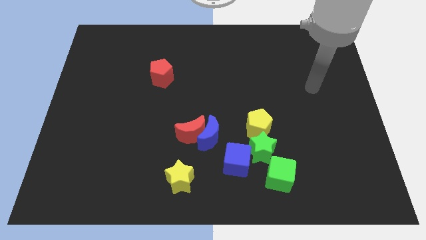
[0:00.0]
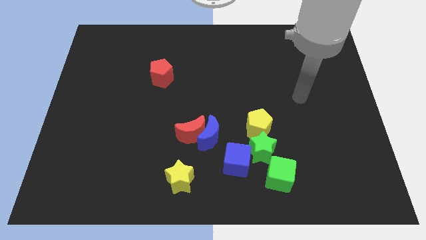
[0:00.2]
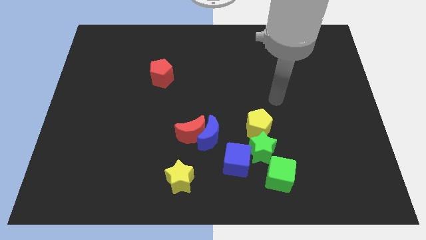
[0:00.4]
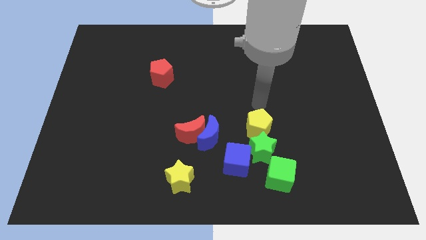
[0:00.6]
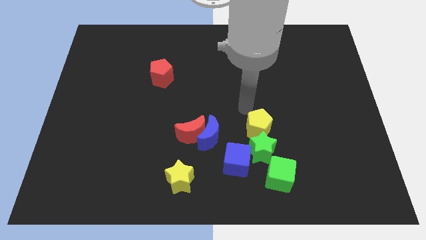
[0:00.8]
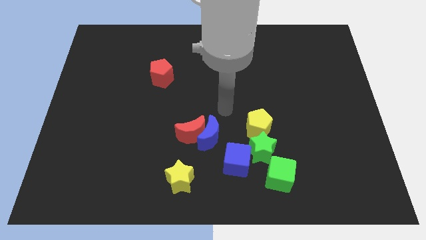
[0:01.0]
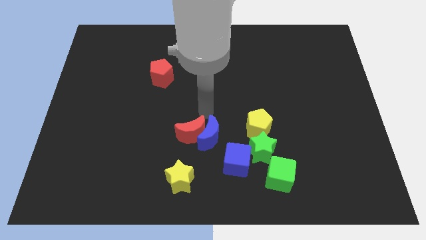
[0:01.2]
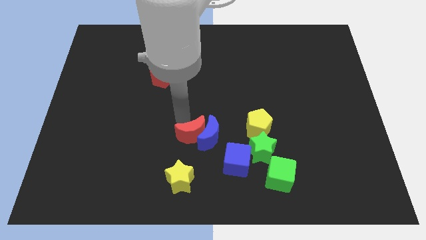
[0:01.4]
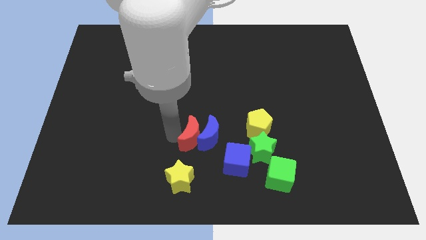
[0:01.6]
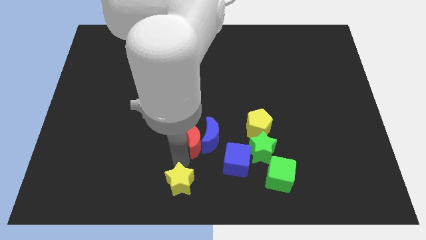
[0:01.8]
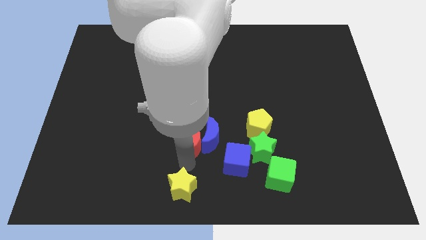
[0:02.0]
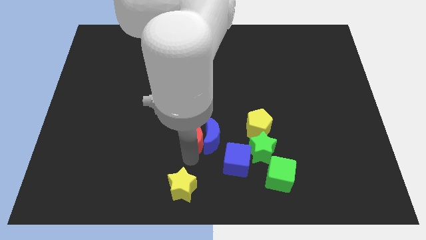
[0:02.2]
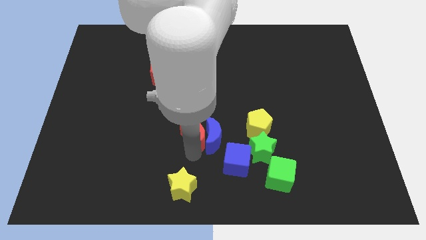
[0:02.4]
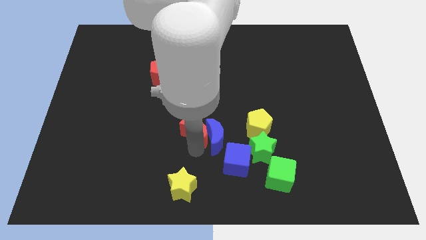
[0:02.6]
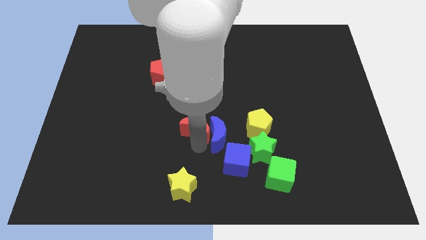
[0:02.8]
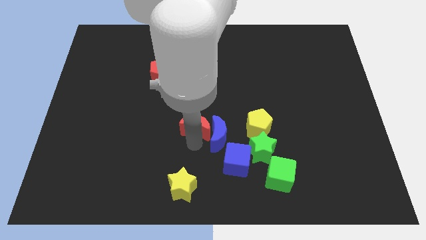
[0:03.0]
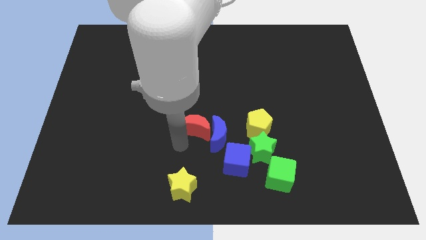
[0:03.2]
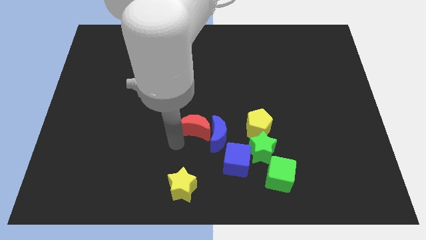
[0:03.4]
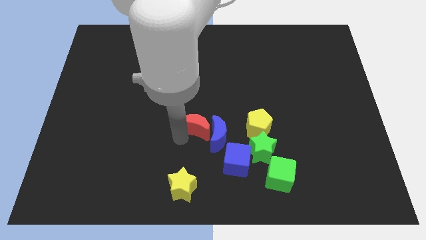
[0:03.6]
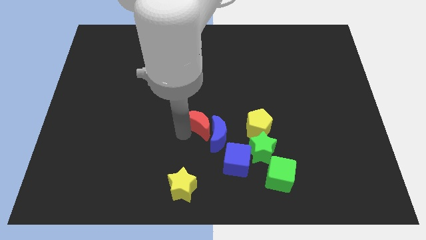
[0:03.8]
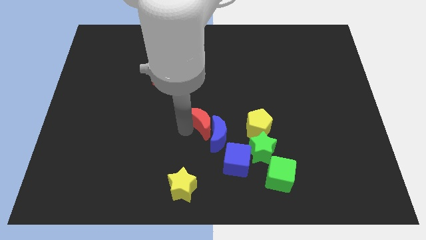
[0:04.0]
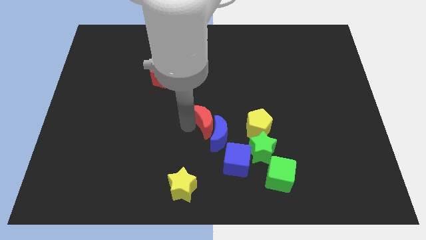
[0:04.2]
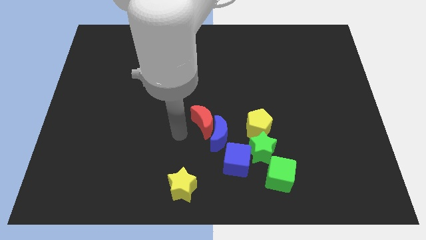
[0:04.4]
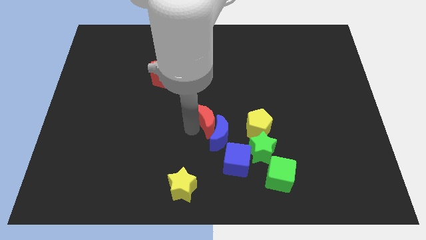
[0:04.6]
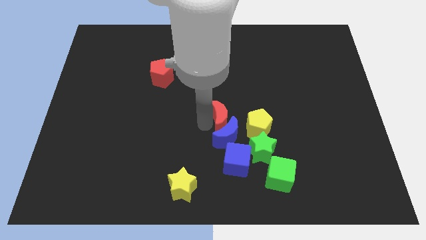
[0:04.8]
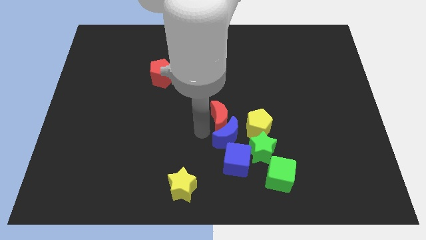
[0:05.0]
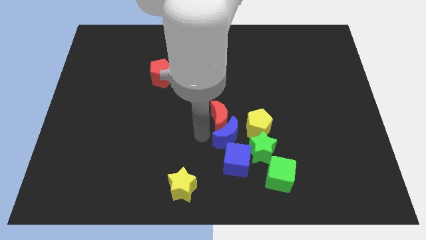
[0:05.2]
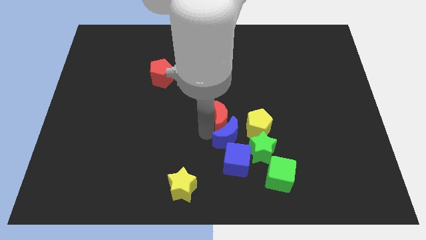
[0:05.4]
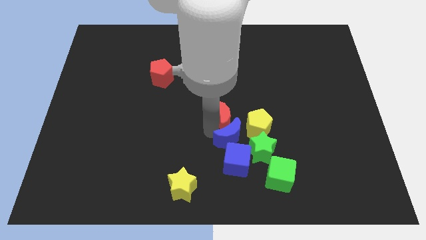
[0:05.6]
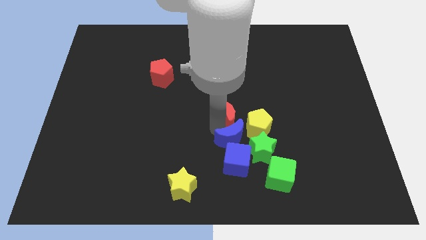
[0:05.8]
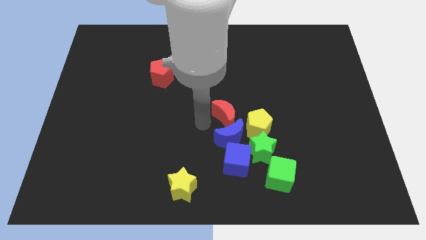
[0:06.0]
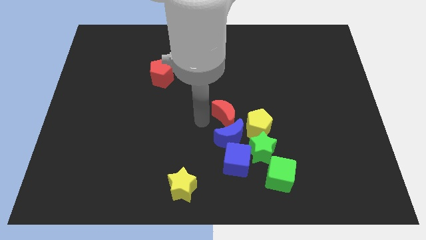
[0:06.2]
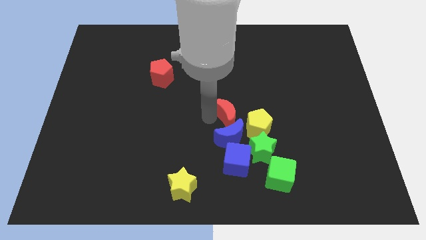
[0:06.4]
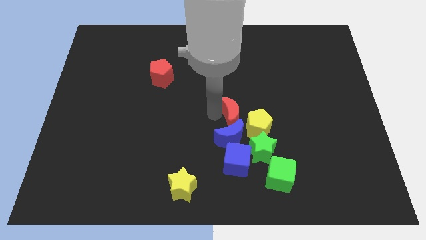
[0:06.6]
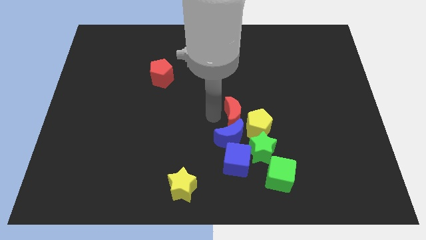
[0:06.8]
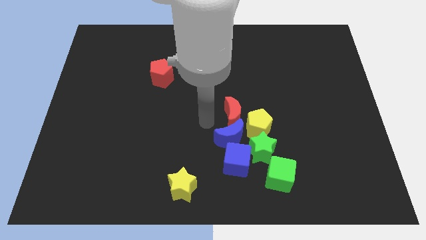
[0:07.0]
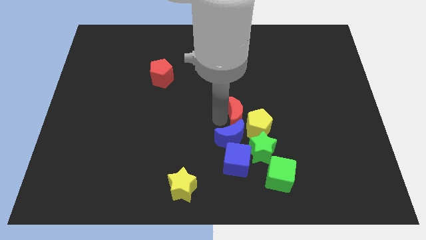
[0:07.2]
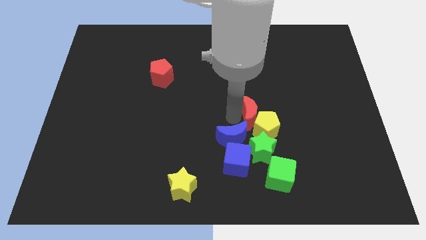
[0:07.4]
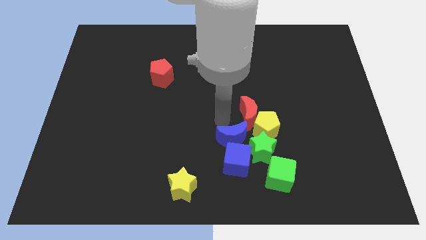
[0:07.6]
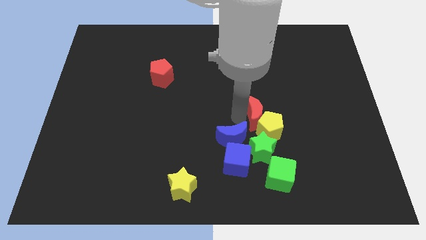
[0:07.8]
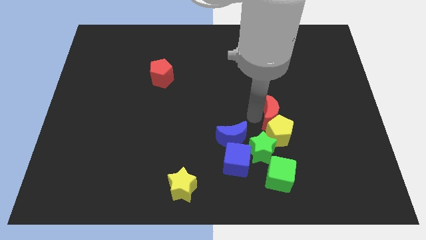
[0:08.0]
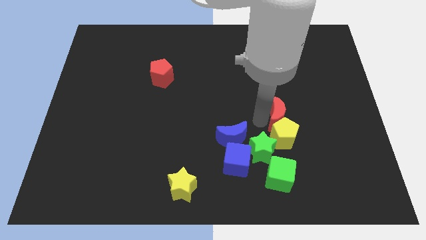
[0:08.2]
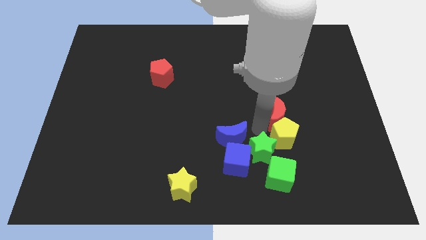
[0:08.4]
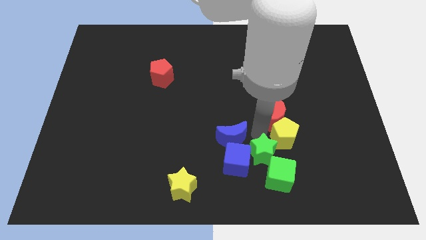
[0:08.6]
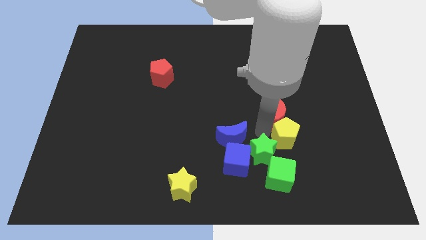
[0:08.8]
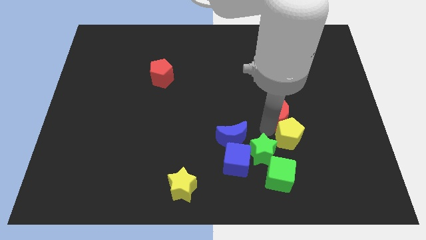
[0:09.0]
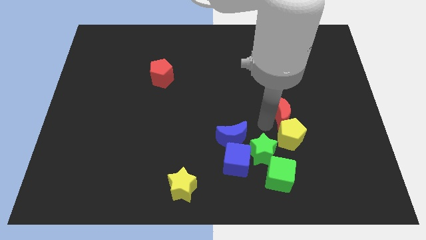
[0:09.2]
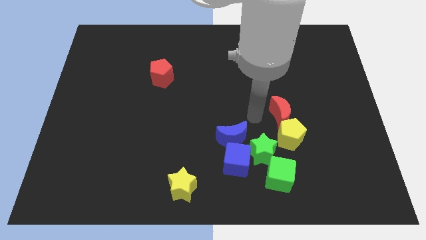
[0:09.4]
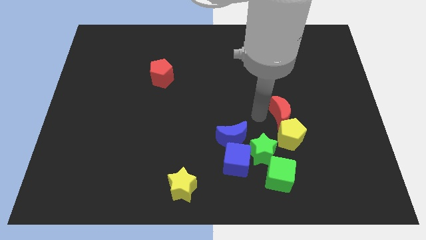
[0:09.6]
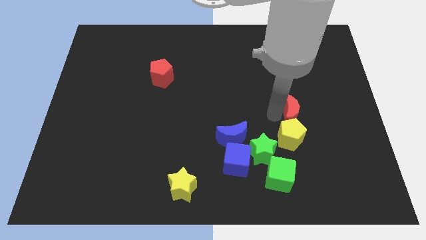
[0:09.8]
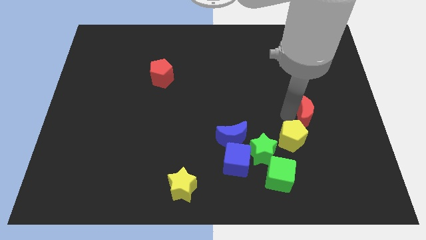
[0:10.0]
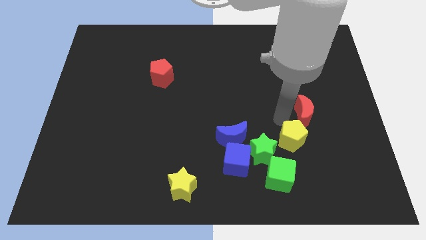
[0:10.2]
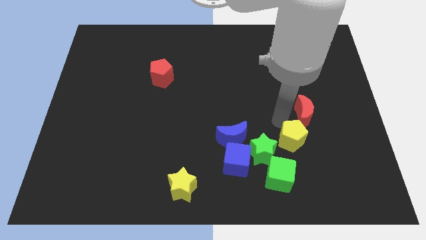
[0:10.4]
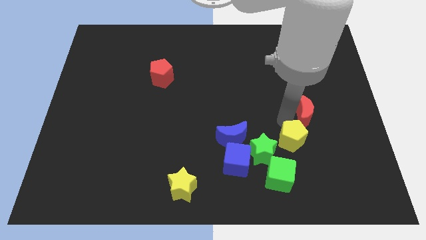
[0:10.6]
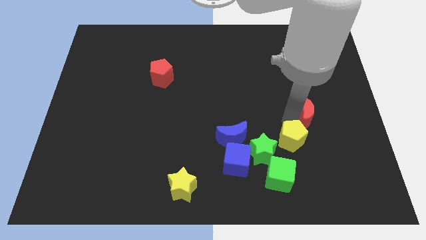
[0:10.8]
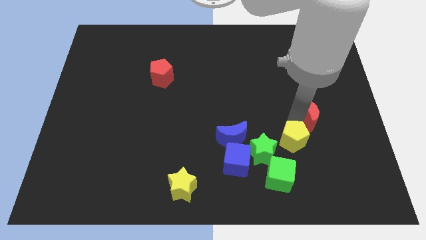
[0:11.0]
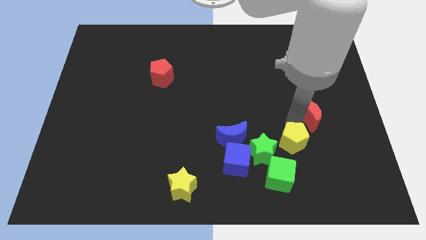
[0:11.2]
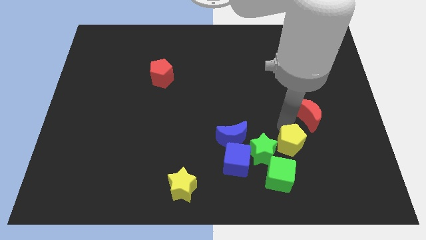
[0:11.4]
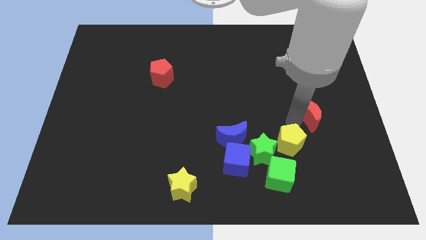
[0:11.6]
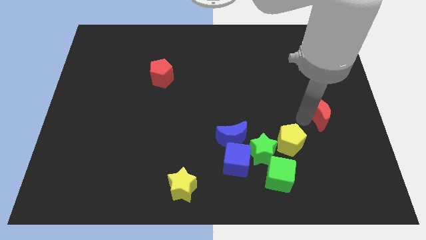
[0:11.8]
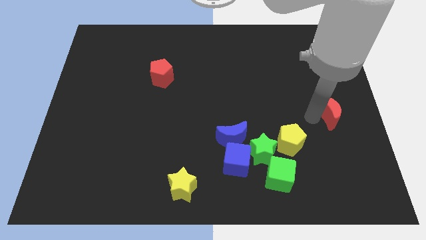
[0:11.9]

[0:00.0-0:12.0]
put the red moon to the center right

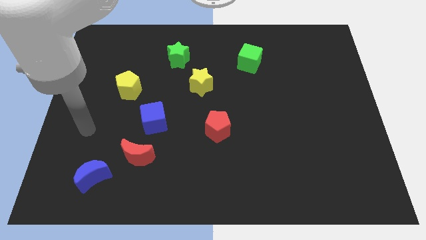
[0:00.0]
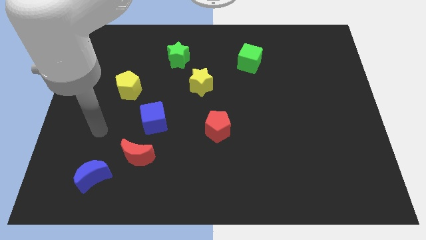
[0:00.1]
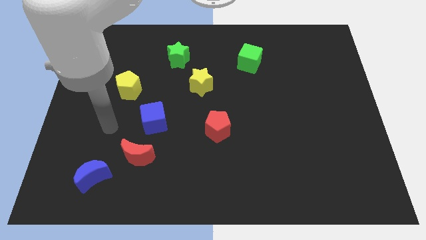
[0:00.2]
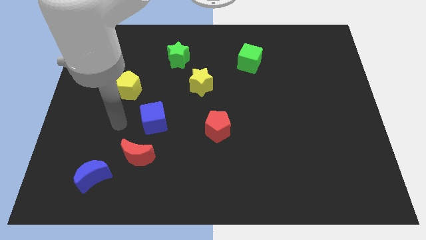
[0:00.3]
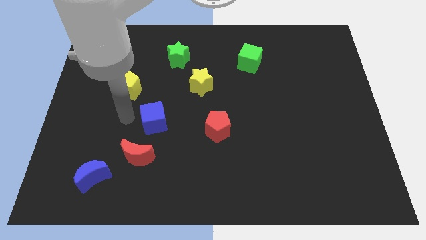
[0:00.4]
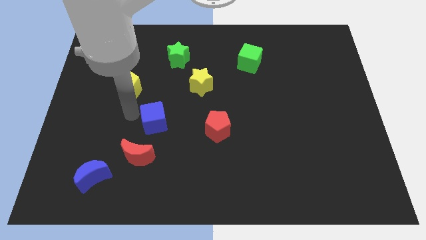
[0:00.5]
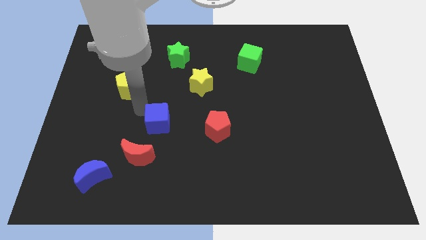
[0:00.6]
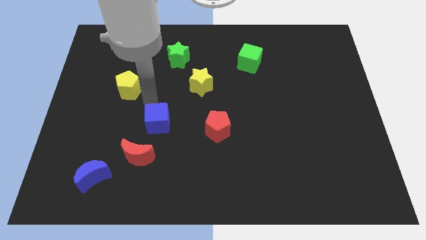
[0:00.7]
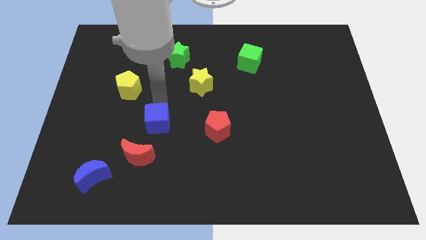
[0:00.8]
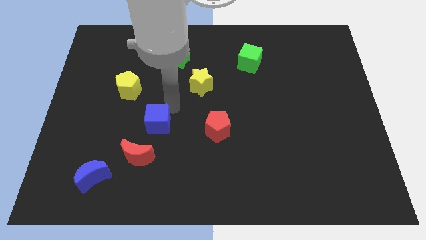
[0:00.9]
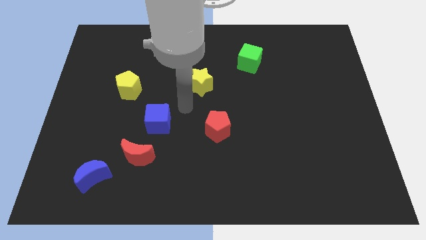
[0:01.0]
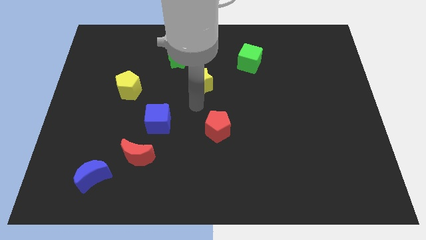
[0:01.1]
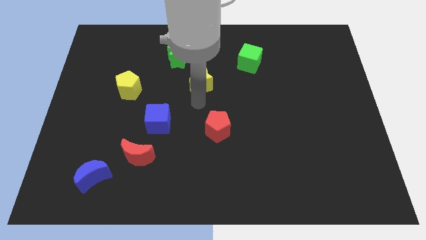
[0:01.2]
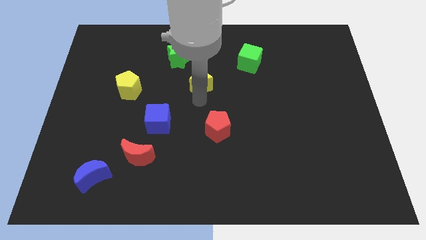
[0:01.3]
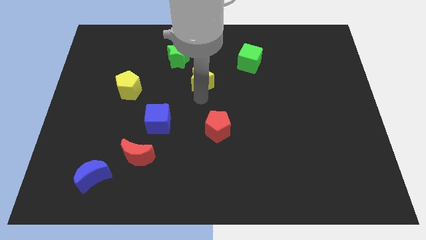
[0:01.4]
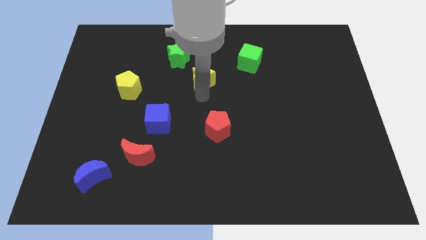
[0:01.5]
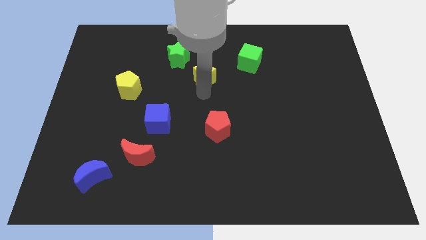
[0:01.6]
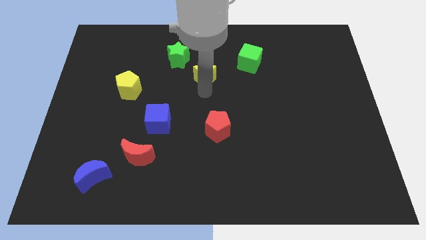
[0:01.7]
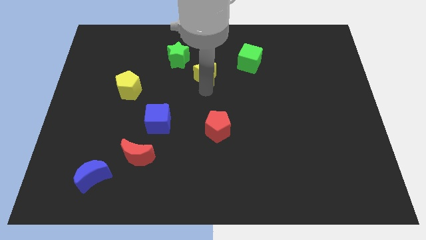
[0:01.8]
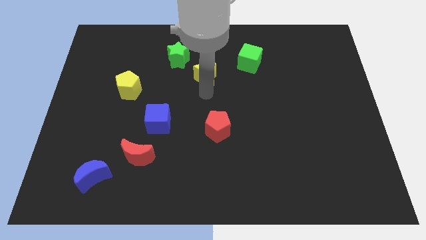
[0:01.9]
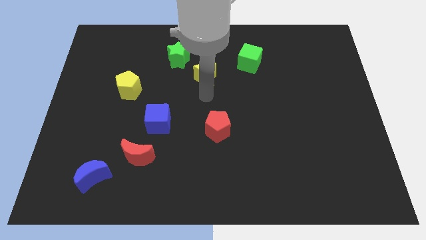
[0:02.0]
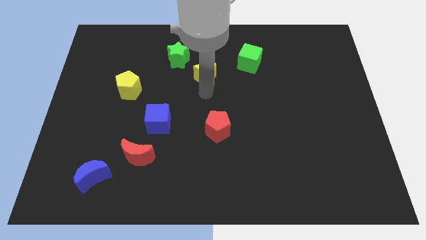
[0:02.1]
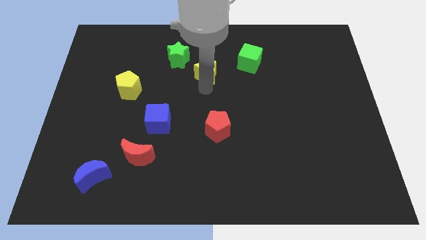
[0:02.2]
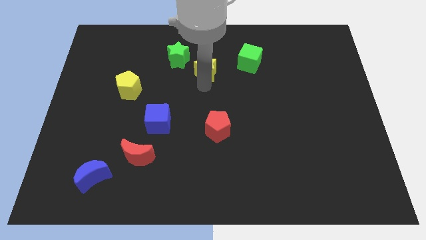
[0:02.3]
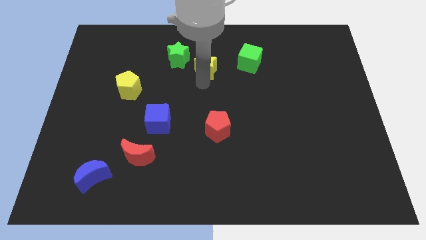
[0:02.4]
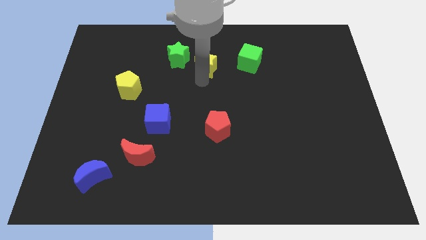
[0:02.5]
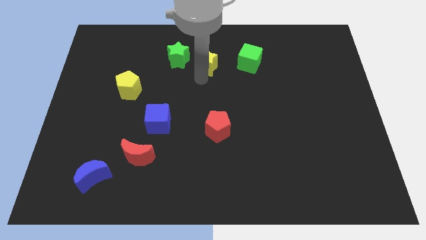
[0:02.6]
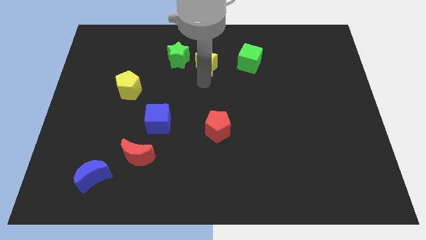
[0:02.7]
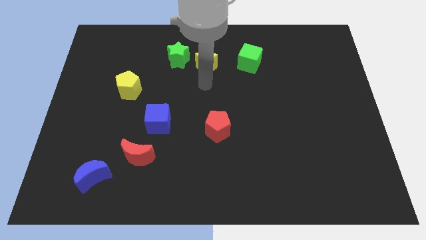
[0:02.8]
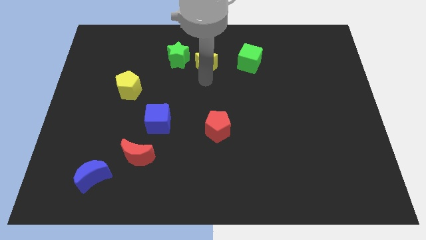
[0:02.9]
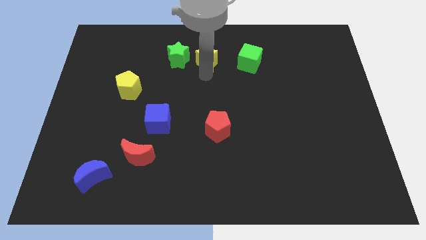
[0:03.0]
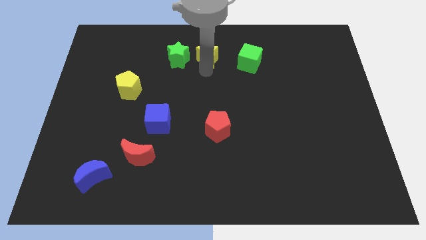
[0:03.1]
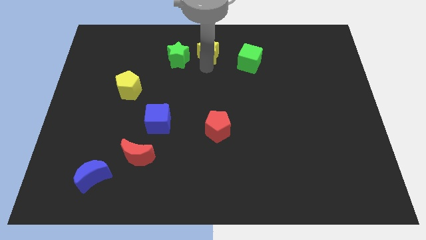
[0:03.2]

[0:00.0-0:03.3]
slide the yellow star to the top side
